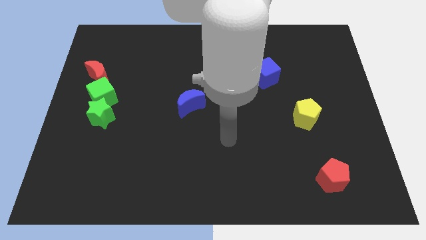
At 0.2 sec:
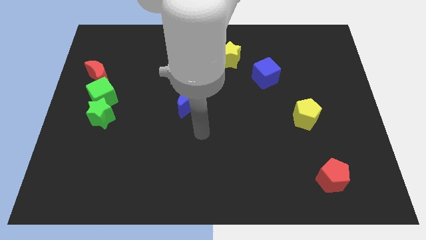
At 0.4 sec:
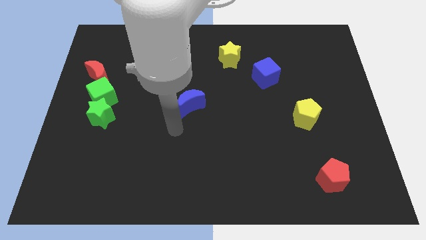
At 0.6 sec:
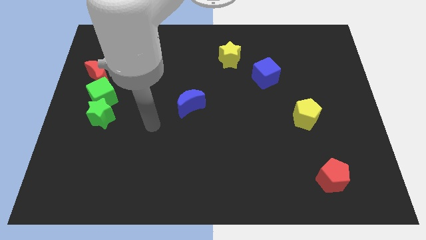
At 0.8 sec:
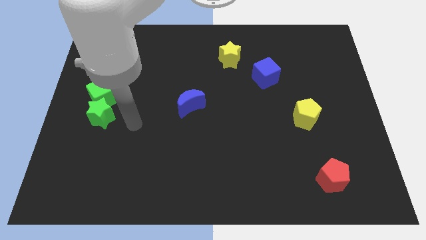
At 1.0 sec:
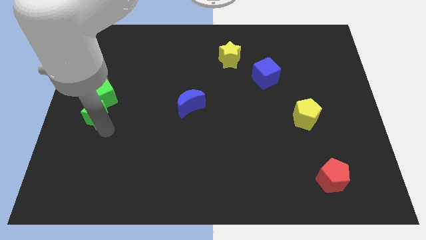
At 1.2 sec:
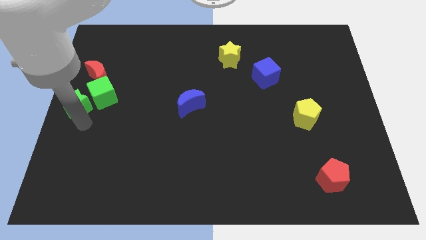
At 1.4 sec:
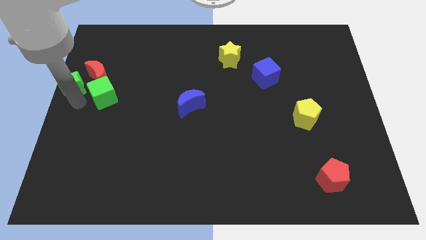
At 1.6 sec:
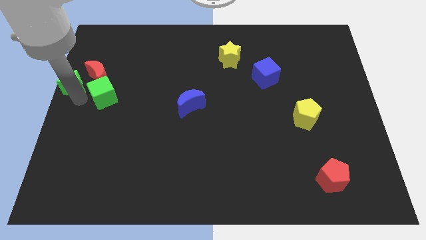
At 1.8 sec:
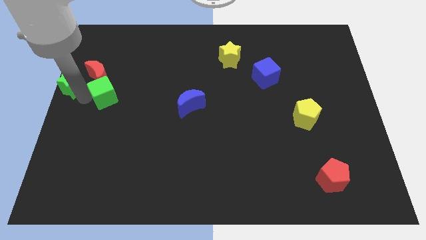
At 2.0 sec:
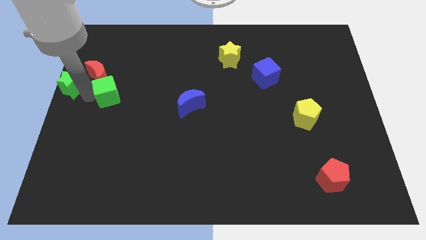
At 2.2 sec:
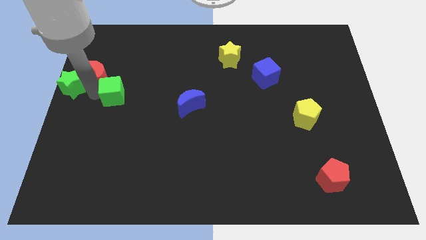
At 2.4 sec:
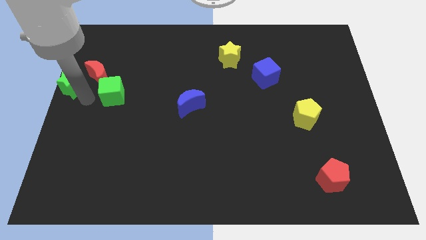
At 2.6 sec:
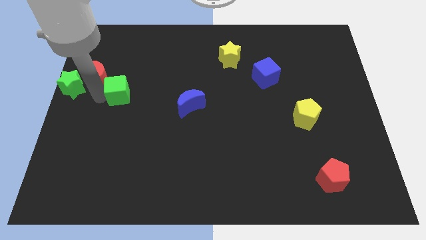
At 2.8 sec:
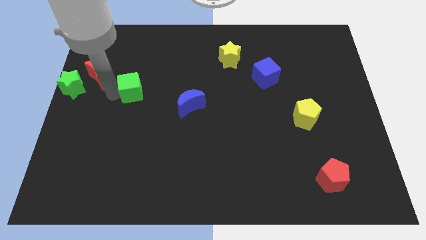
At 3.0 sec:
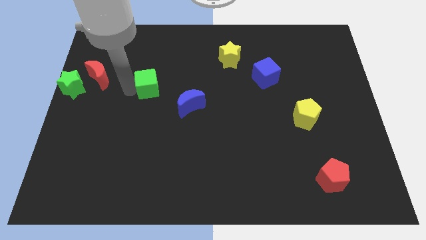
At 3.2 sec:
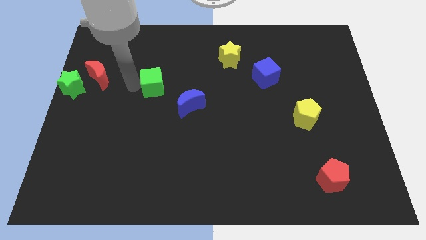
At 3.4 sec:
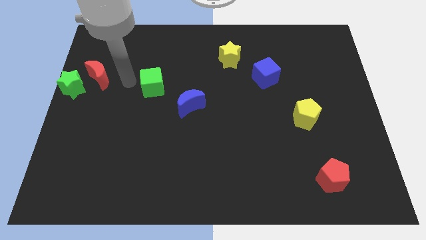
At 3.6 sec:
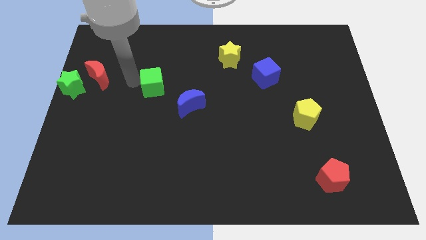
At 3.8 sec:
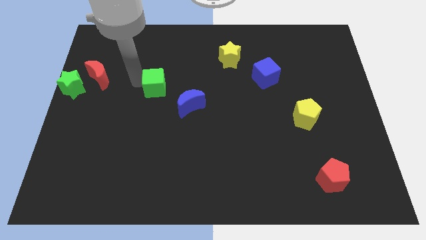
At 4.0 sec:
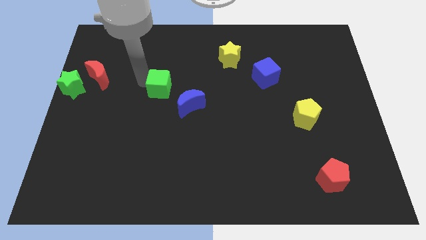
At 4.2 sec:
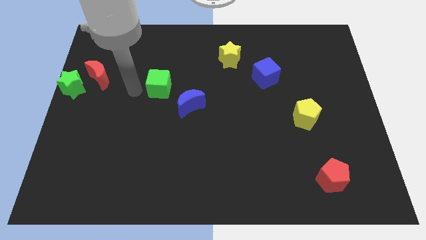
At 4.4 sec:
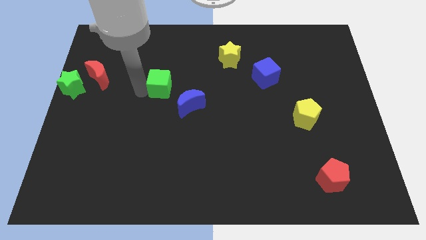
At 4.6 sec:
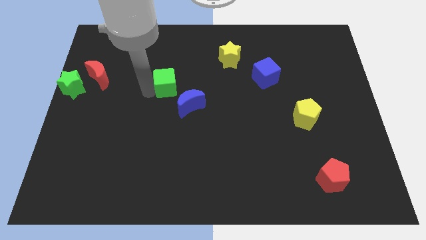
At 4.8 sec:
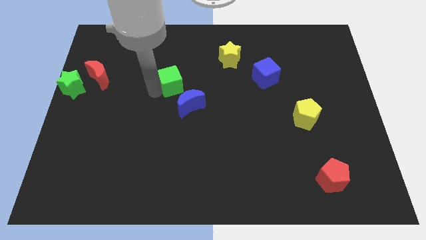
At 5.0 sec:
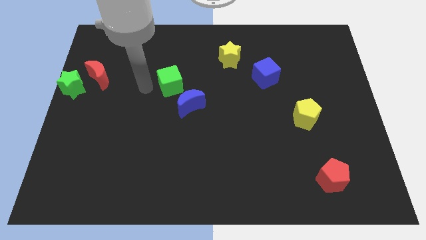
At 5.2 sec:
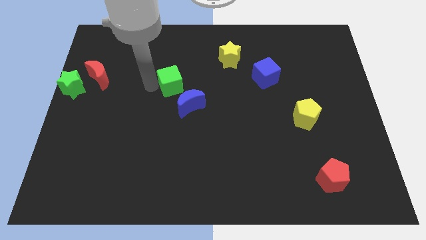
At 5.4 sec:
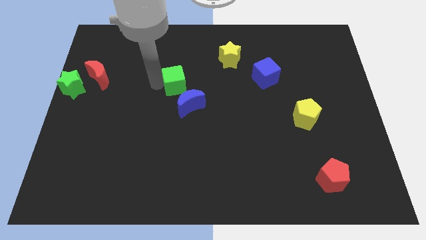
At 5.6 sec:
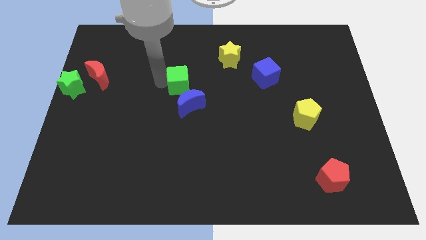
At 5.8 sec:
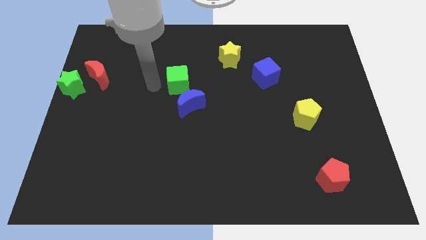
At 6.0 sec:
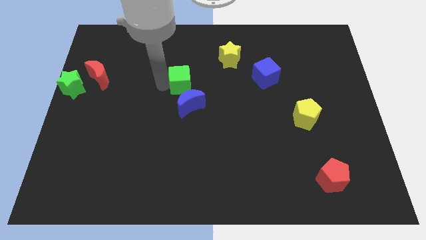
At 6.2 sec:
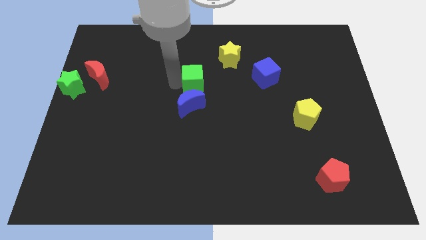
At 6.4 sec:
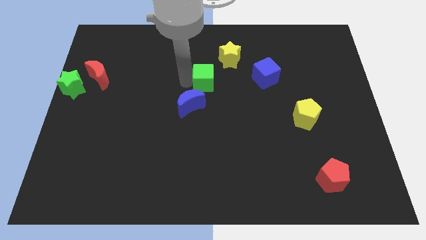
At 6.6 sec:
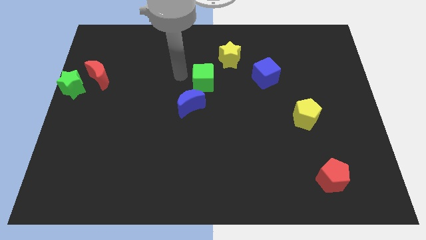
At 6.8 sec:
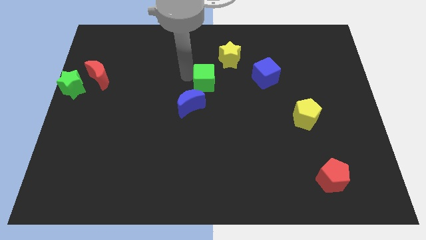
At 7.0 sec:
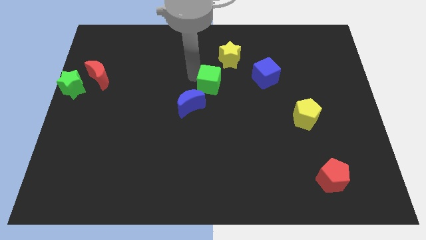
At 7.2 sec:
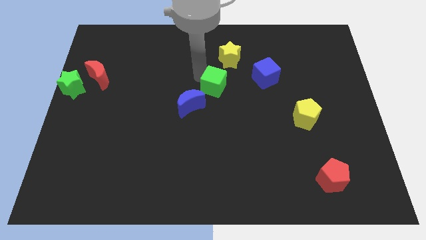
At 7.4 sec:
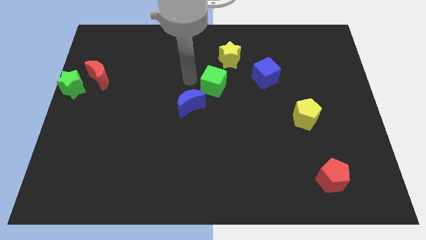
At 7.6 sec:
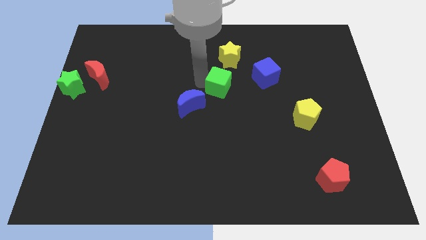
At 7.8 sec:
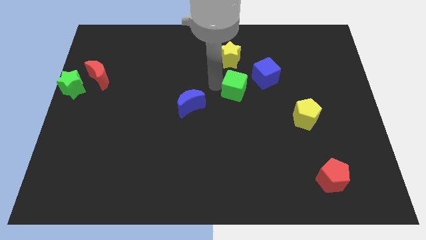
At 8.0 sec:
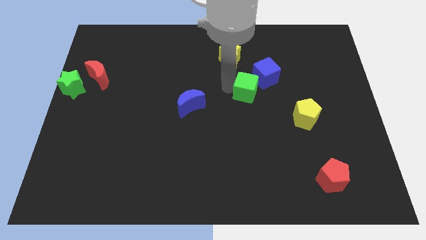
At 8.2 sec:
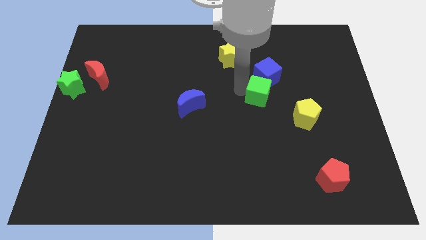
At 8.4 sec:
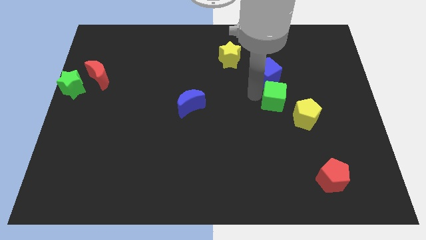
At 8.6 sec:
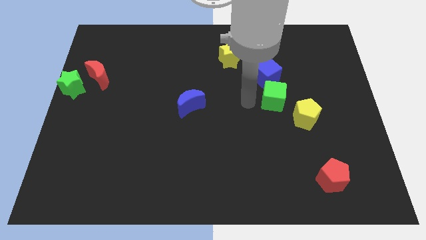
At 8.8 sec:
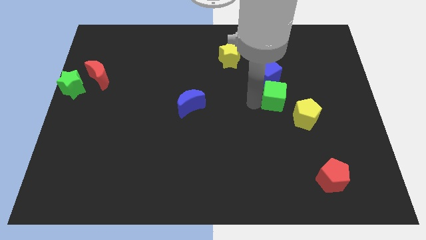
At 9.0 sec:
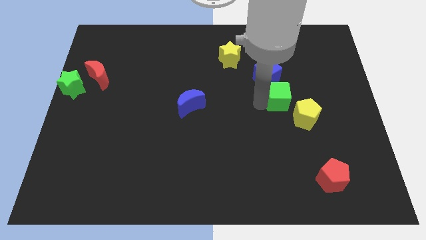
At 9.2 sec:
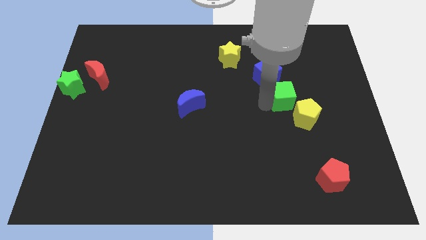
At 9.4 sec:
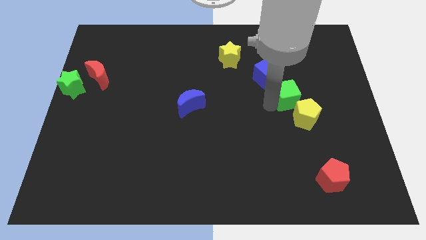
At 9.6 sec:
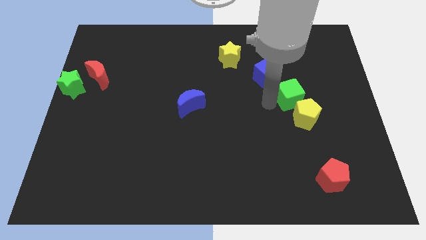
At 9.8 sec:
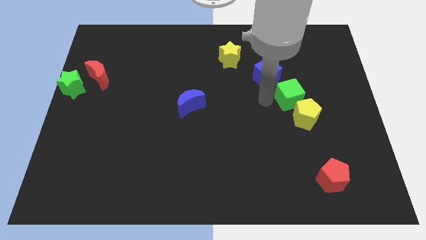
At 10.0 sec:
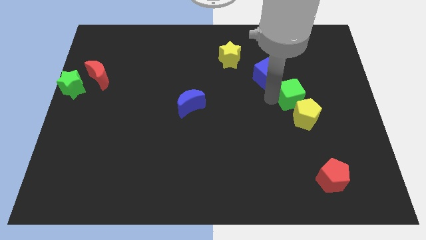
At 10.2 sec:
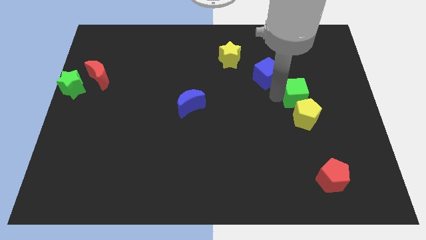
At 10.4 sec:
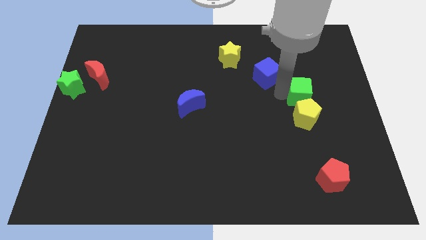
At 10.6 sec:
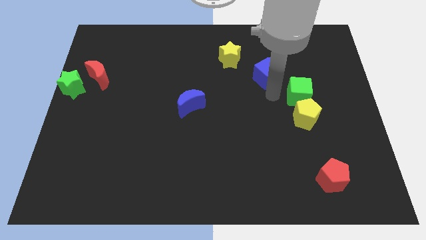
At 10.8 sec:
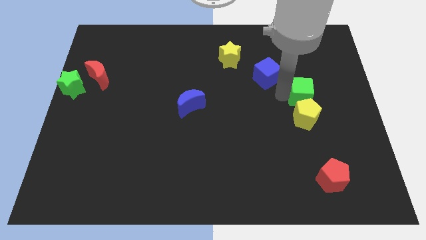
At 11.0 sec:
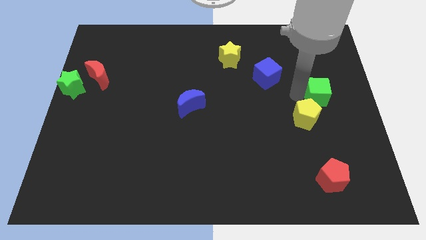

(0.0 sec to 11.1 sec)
slide the green cube to the center right

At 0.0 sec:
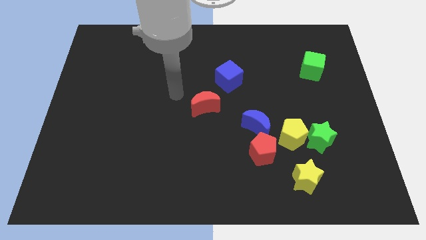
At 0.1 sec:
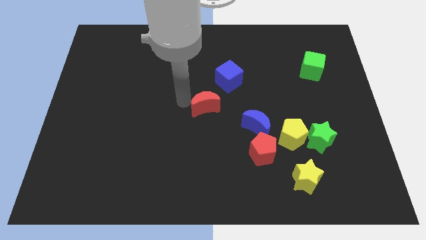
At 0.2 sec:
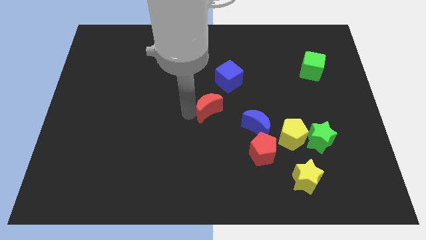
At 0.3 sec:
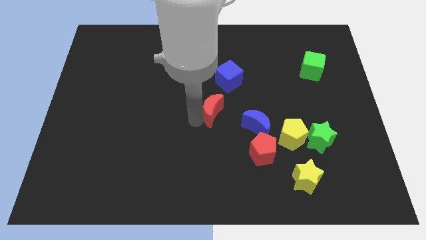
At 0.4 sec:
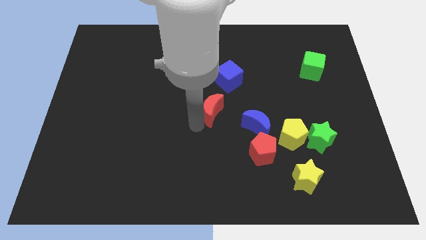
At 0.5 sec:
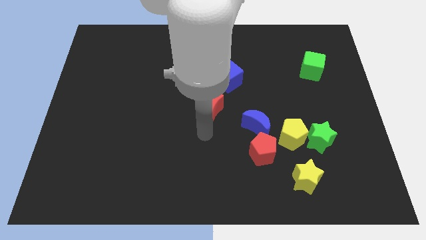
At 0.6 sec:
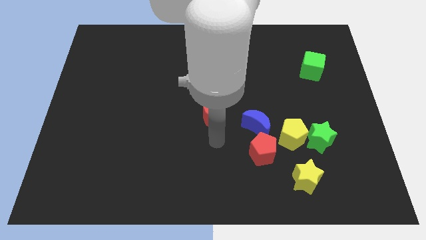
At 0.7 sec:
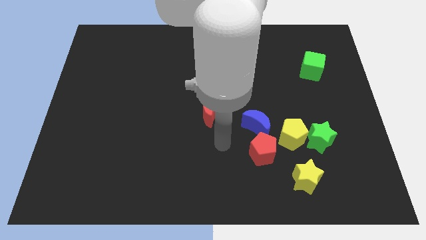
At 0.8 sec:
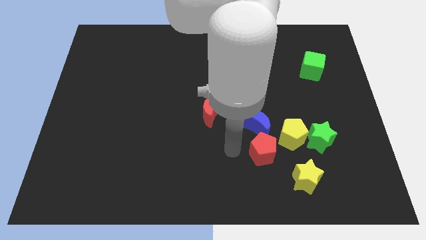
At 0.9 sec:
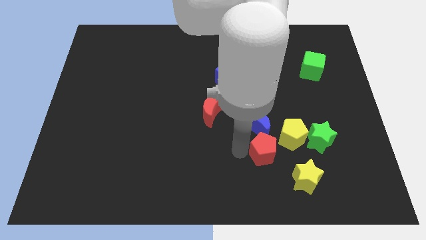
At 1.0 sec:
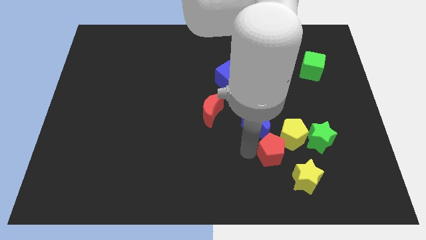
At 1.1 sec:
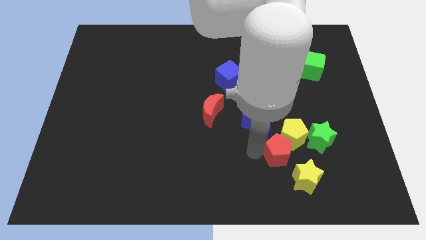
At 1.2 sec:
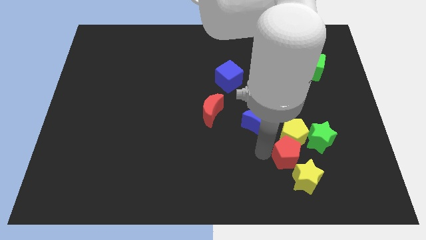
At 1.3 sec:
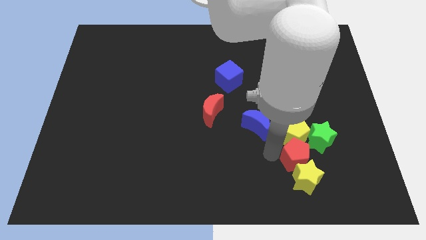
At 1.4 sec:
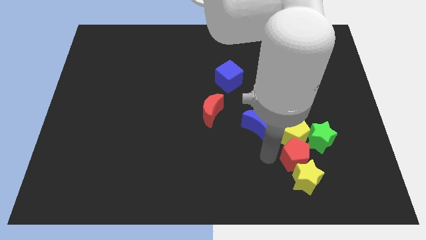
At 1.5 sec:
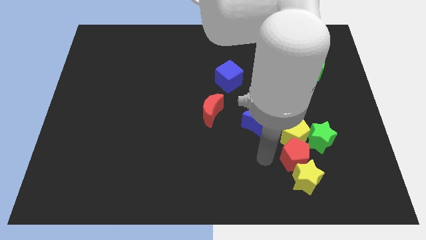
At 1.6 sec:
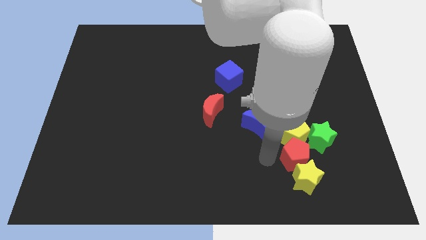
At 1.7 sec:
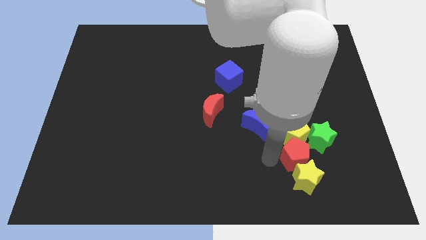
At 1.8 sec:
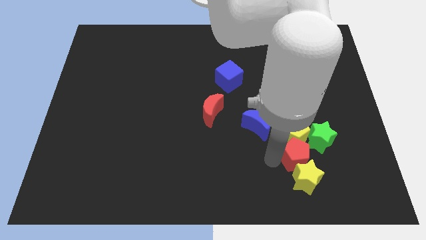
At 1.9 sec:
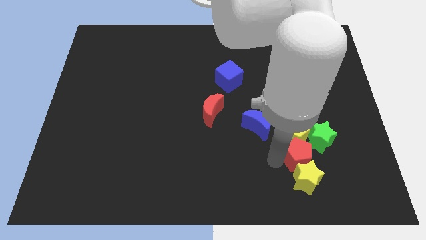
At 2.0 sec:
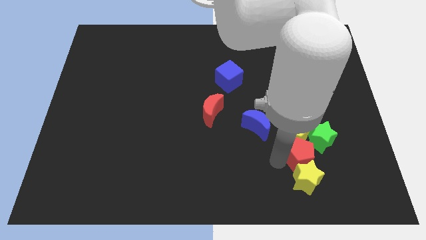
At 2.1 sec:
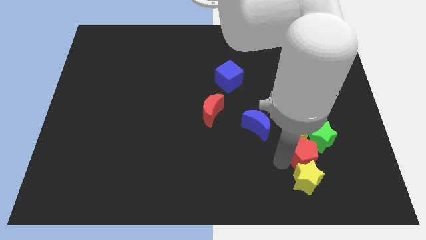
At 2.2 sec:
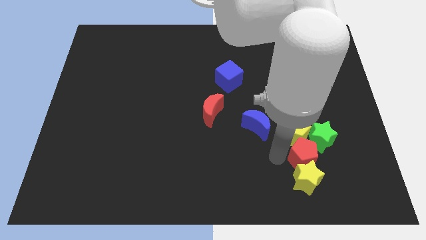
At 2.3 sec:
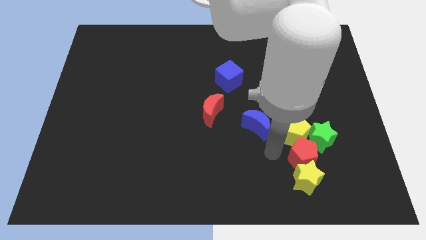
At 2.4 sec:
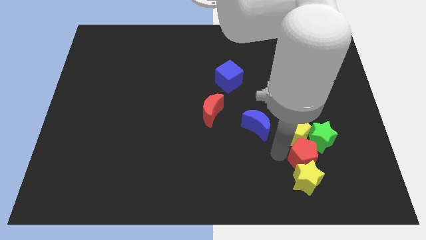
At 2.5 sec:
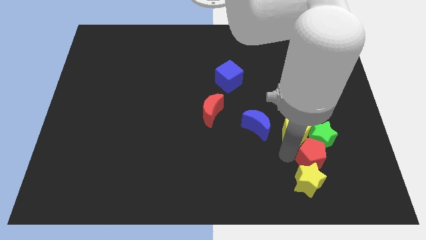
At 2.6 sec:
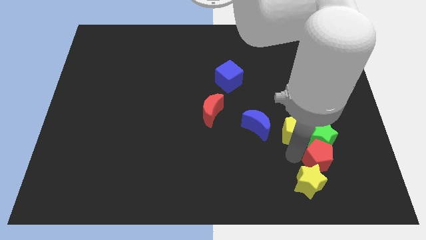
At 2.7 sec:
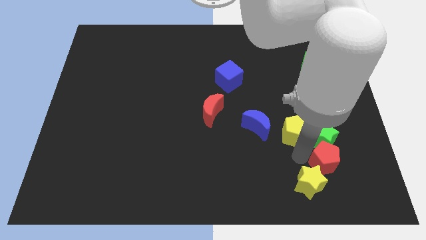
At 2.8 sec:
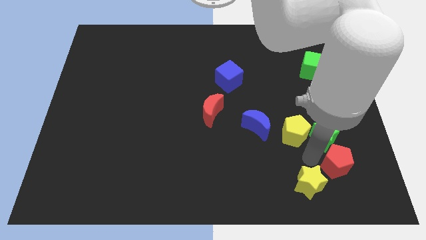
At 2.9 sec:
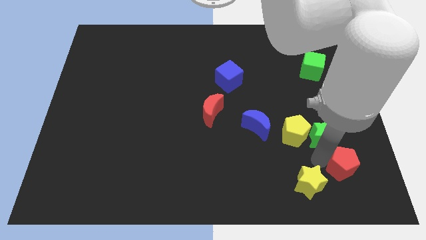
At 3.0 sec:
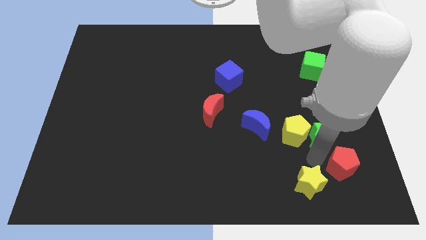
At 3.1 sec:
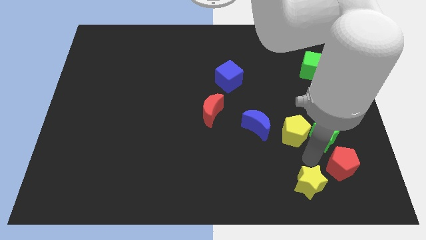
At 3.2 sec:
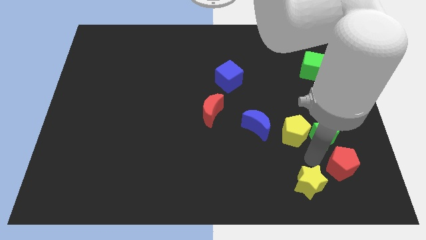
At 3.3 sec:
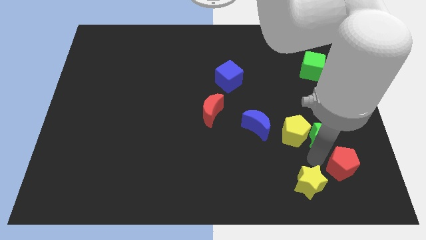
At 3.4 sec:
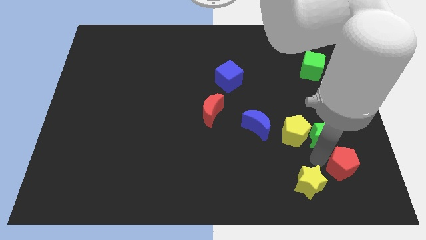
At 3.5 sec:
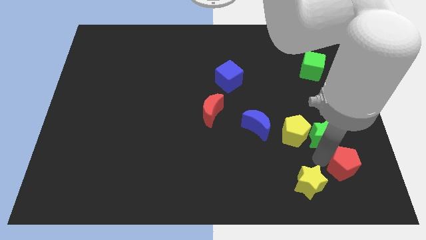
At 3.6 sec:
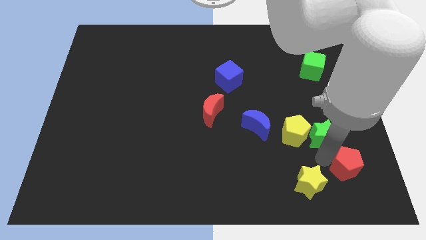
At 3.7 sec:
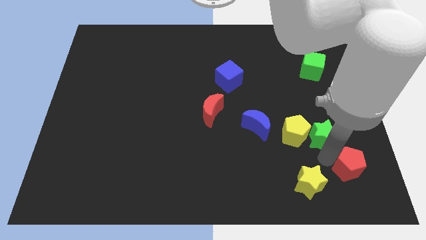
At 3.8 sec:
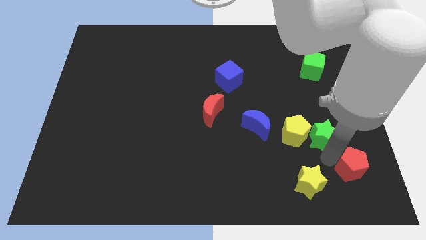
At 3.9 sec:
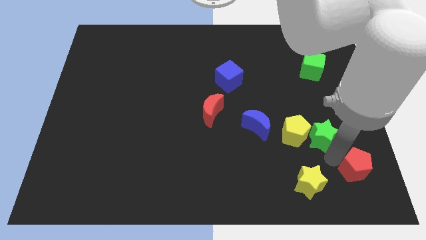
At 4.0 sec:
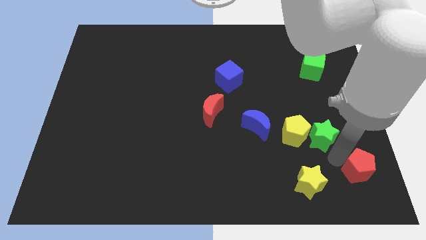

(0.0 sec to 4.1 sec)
put the red pentagon to the bottom right corner
